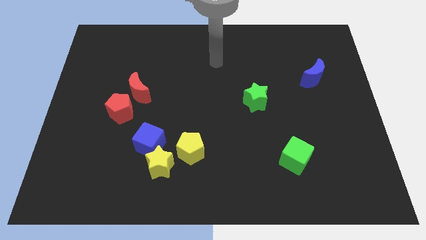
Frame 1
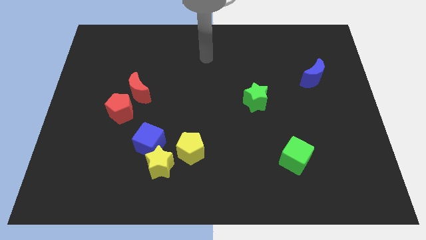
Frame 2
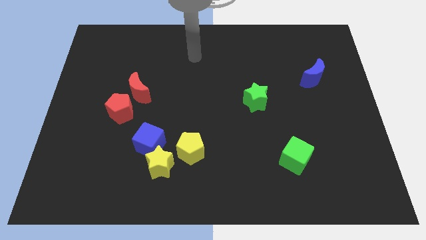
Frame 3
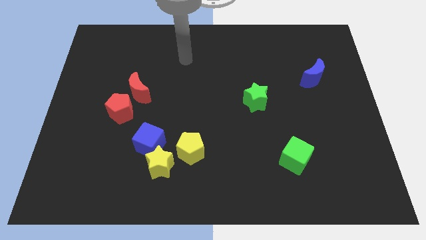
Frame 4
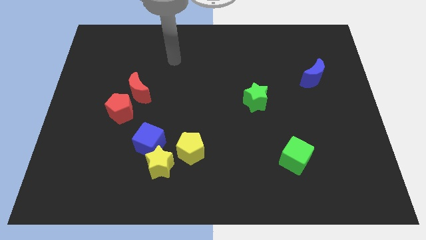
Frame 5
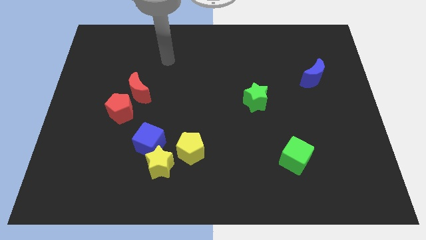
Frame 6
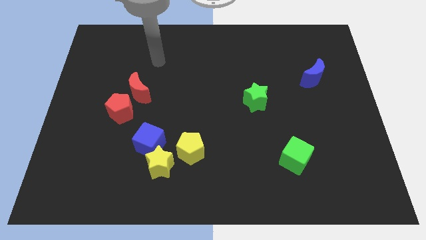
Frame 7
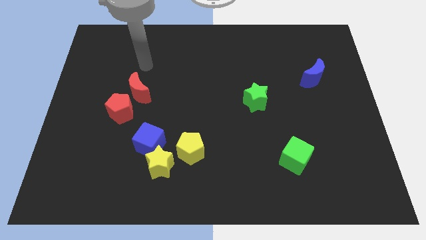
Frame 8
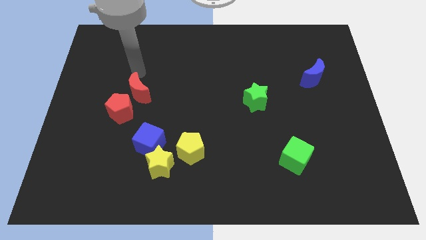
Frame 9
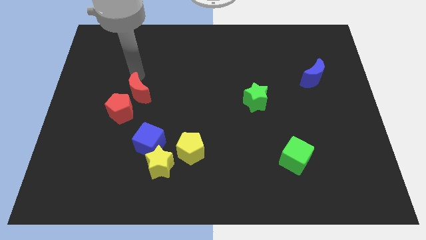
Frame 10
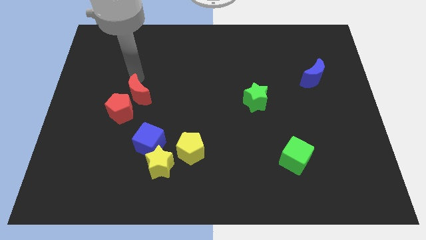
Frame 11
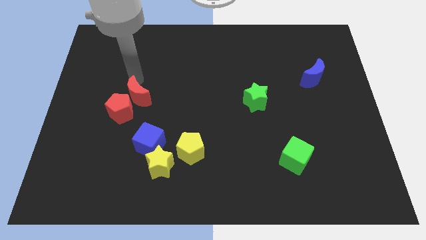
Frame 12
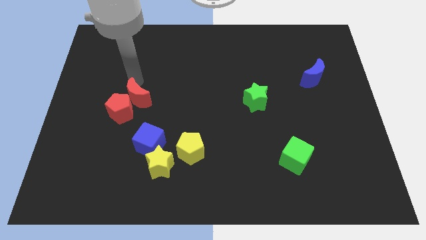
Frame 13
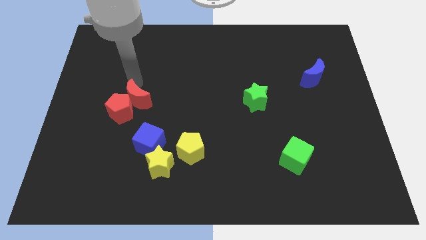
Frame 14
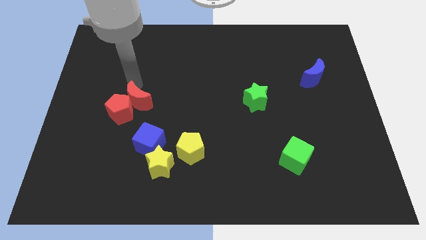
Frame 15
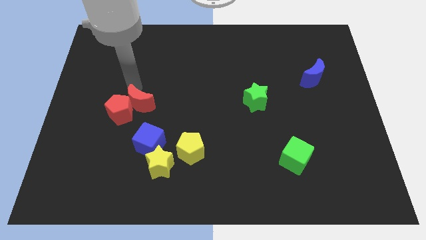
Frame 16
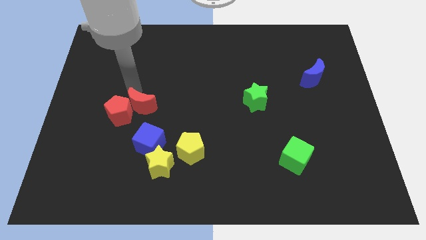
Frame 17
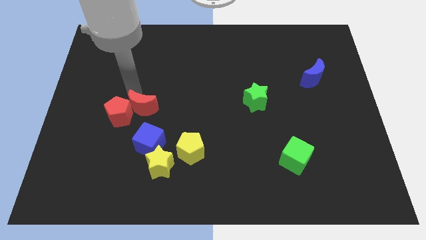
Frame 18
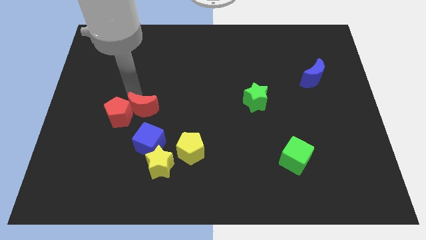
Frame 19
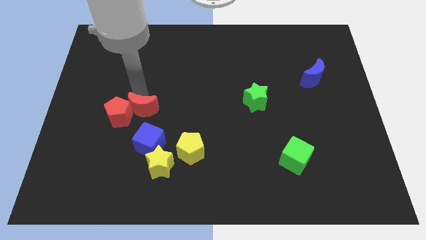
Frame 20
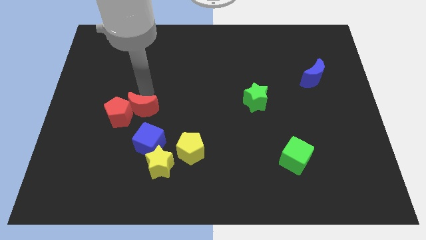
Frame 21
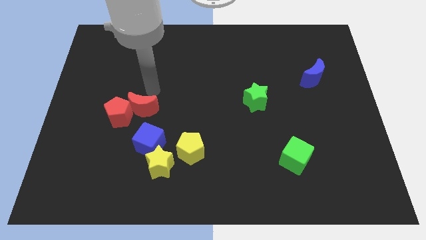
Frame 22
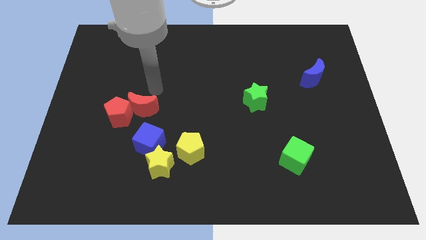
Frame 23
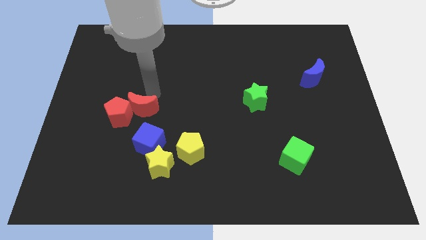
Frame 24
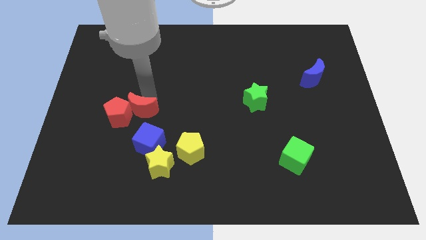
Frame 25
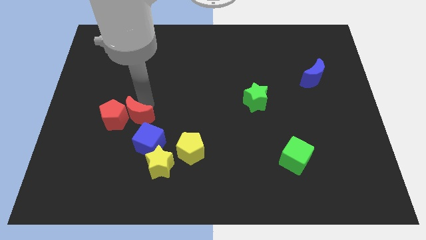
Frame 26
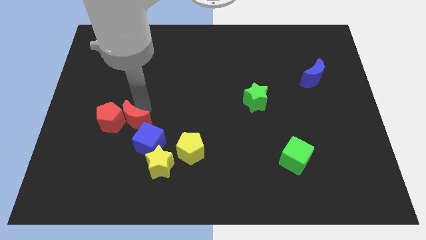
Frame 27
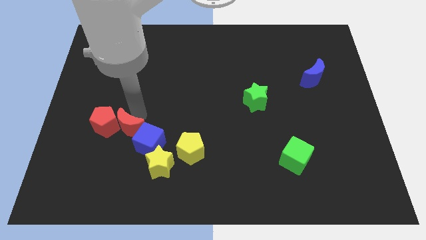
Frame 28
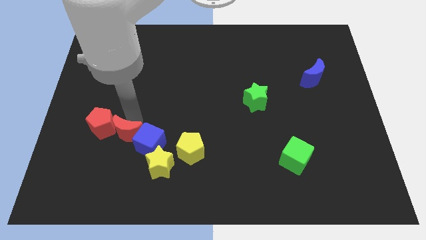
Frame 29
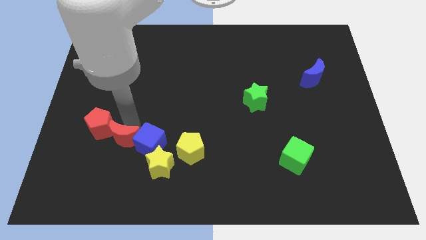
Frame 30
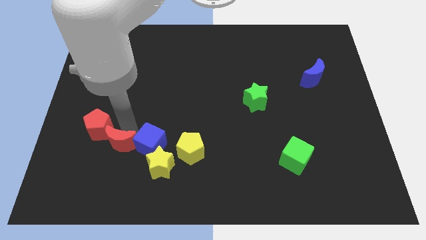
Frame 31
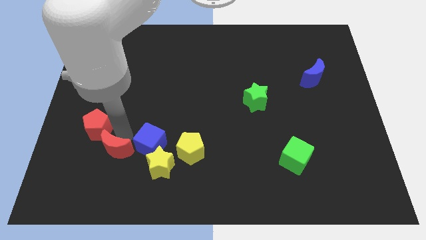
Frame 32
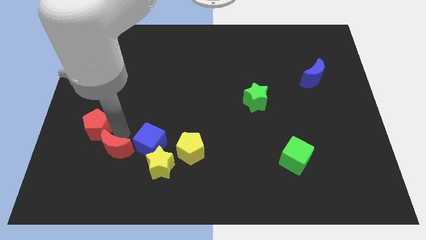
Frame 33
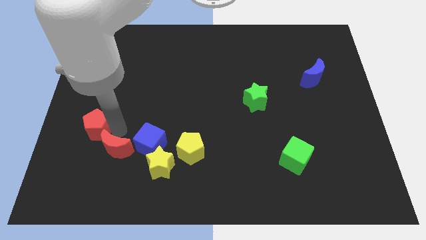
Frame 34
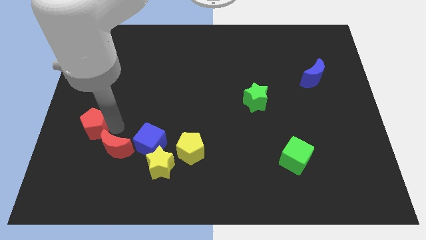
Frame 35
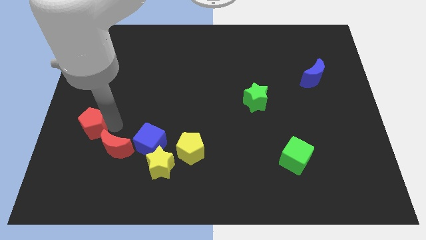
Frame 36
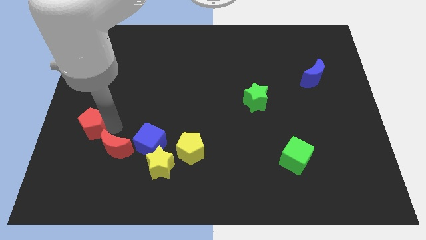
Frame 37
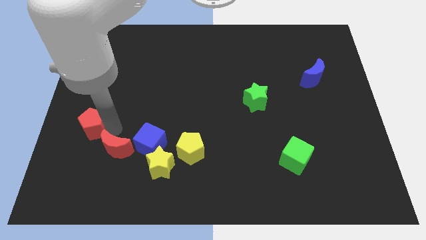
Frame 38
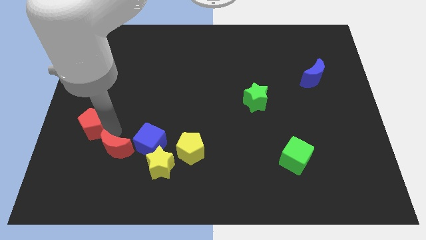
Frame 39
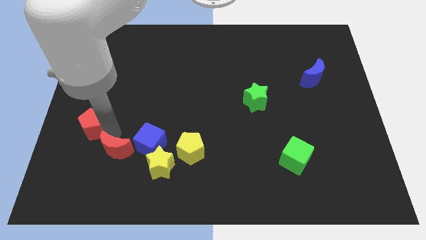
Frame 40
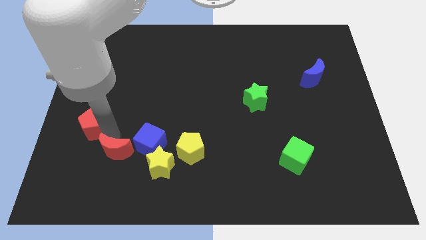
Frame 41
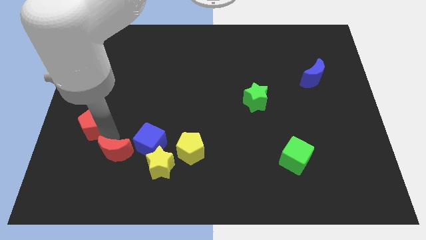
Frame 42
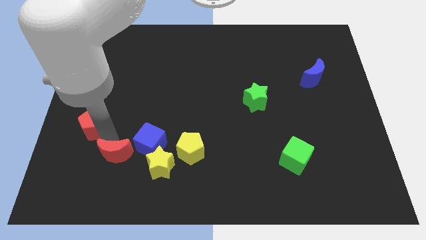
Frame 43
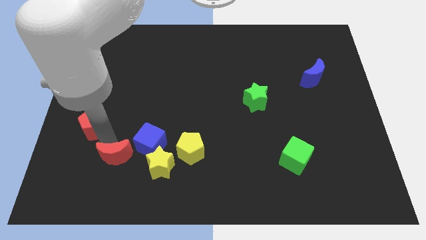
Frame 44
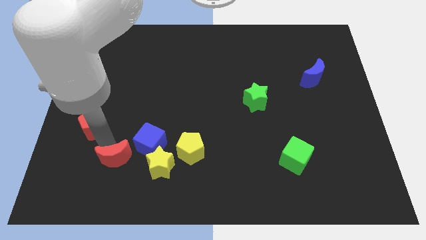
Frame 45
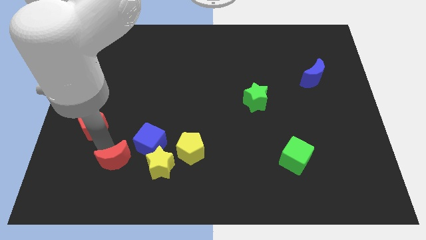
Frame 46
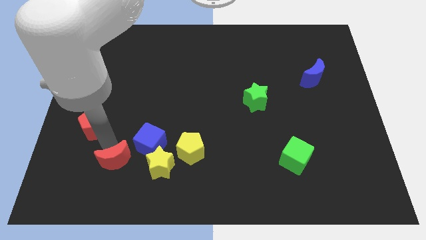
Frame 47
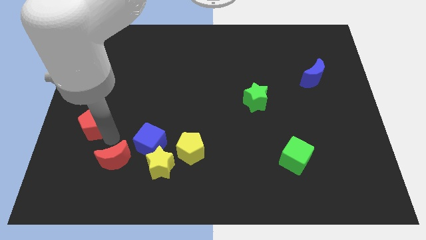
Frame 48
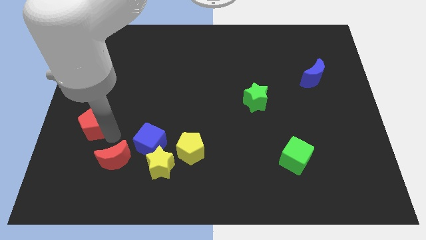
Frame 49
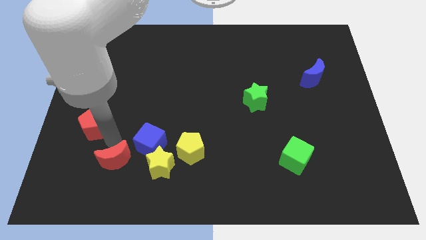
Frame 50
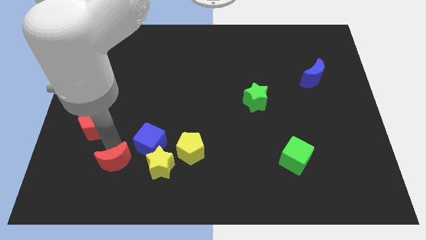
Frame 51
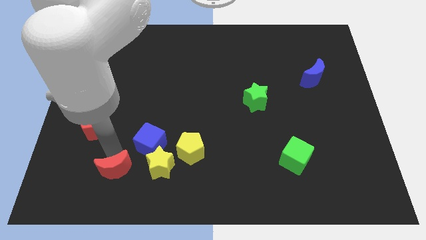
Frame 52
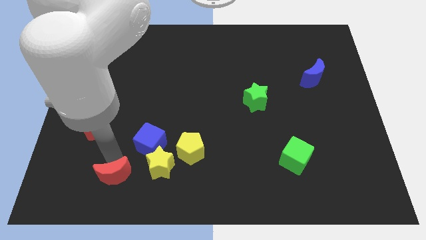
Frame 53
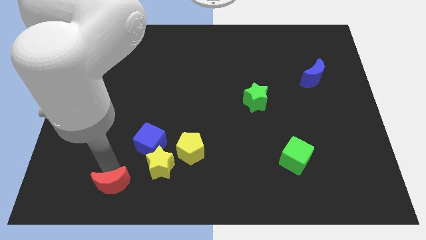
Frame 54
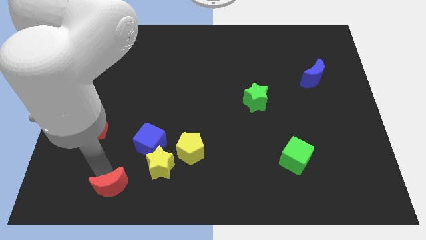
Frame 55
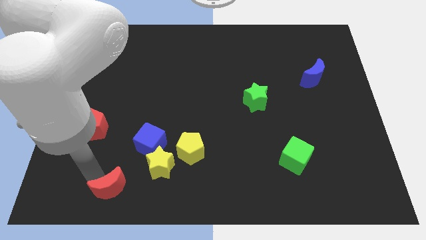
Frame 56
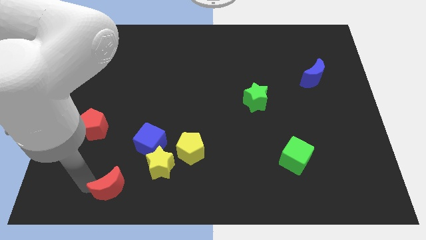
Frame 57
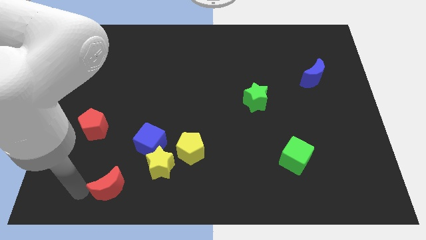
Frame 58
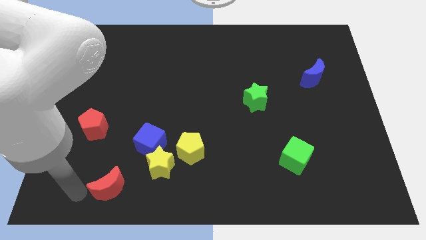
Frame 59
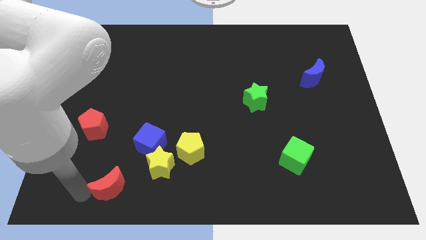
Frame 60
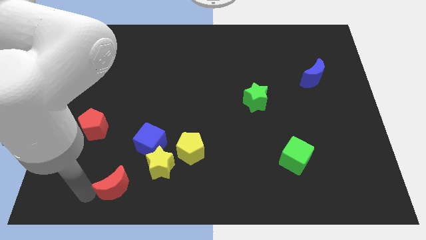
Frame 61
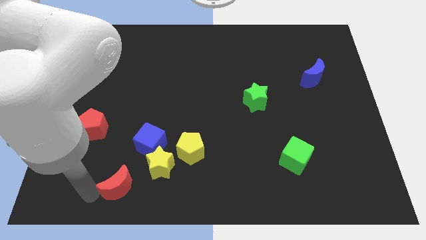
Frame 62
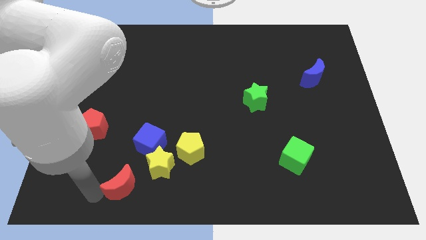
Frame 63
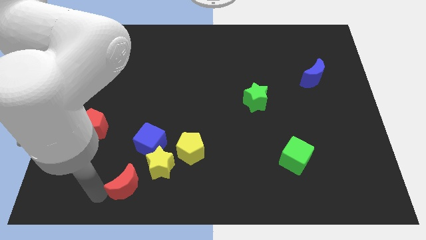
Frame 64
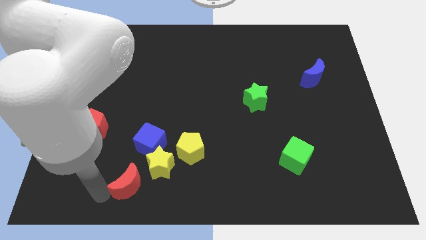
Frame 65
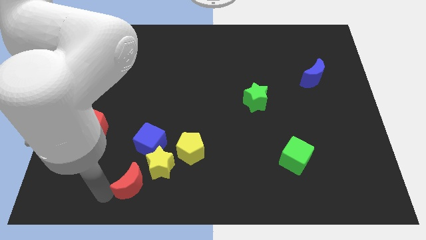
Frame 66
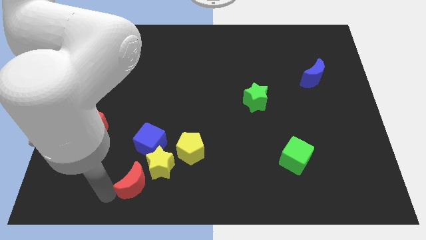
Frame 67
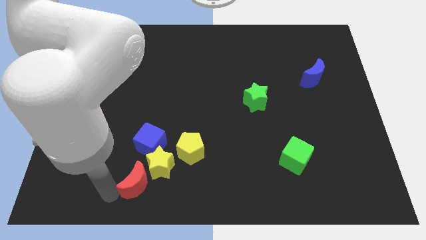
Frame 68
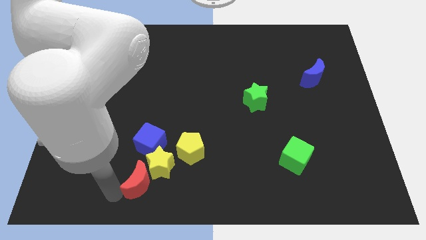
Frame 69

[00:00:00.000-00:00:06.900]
put the red moon to the bottom left of the yellow pentagon

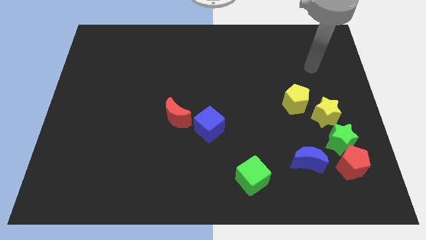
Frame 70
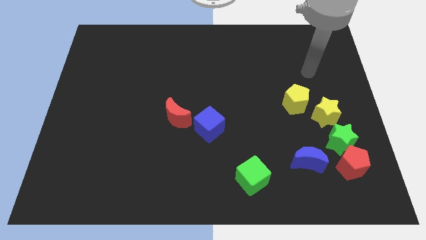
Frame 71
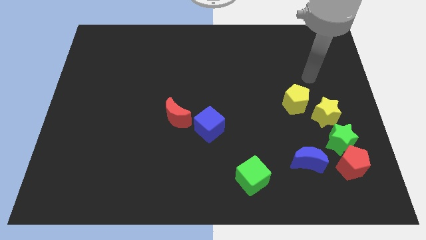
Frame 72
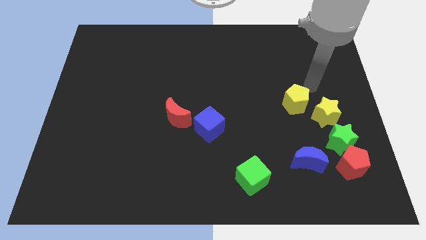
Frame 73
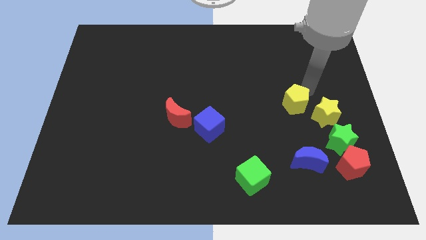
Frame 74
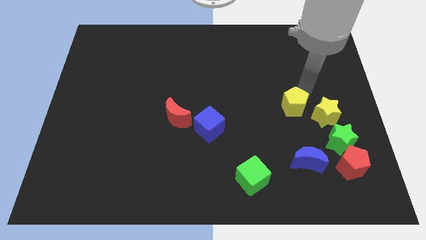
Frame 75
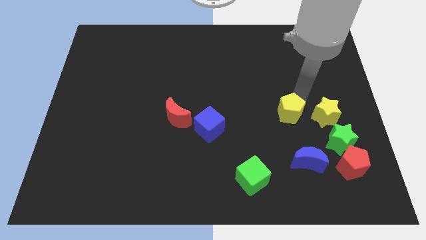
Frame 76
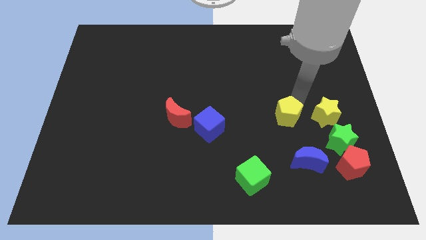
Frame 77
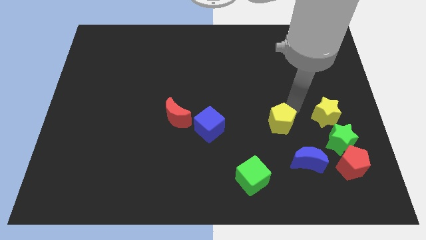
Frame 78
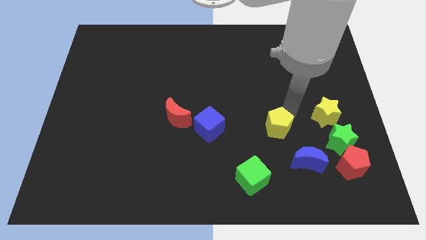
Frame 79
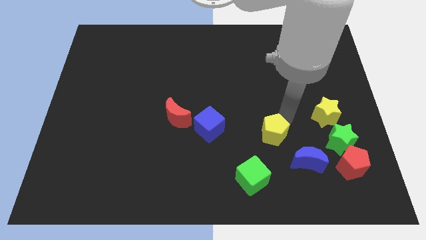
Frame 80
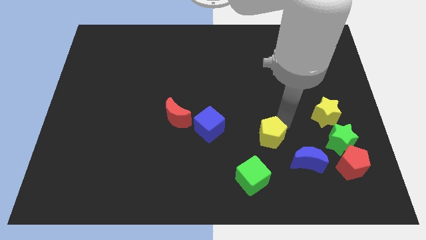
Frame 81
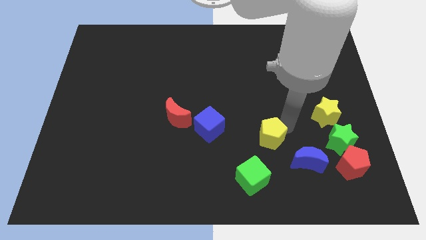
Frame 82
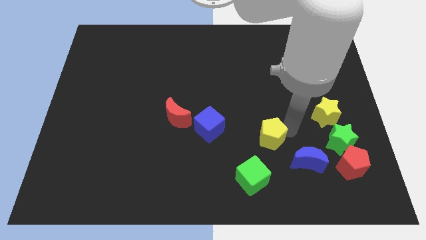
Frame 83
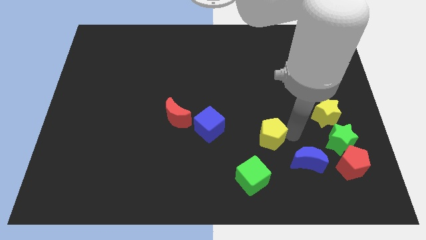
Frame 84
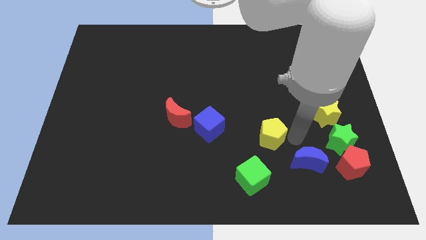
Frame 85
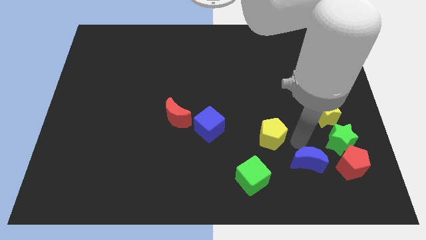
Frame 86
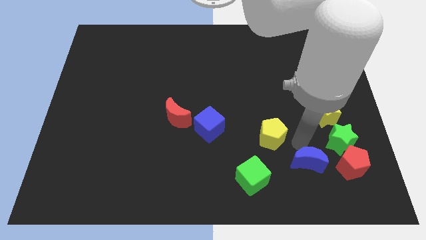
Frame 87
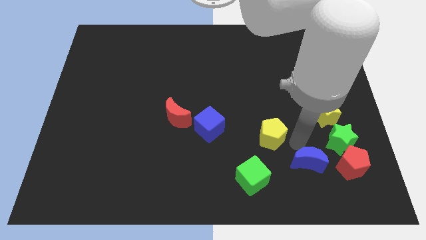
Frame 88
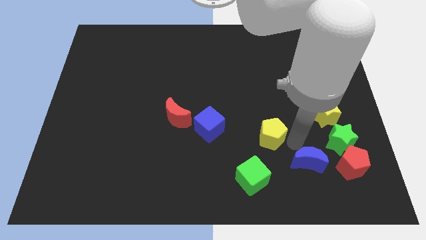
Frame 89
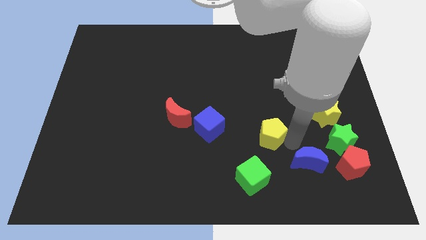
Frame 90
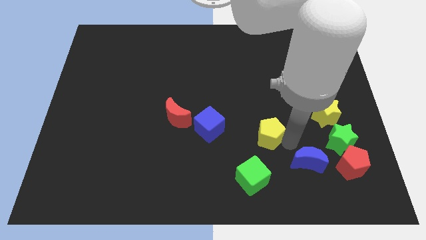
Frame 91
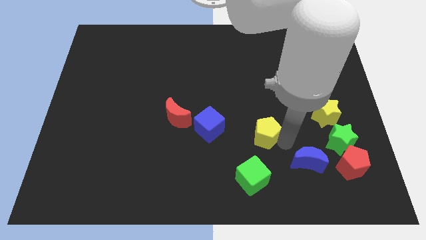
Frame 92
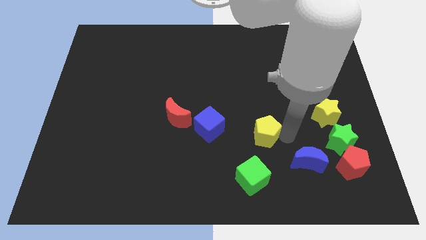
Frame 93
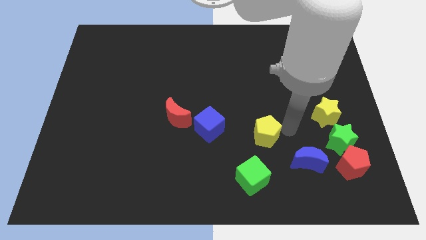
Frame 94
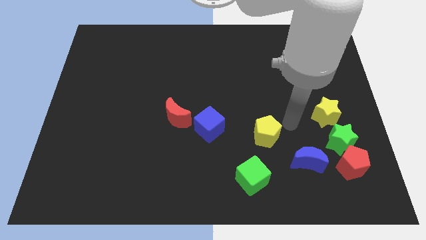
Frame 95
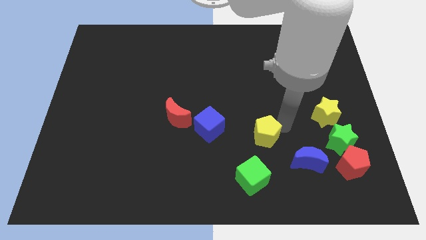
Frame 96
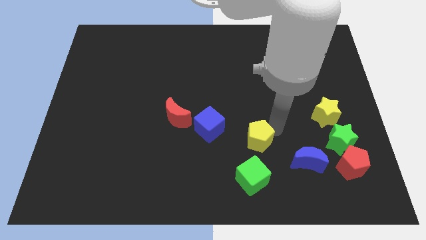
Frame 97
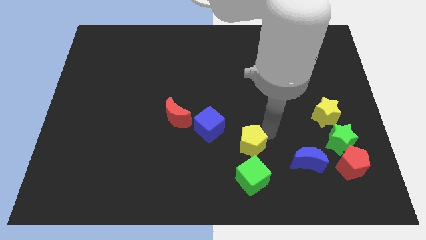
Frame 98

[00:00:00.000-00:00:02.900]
move the yellow pentagon to the bottom right side of the blue cube
